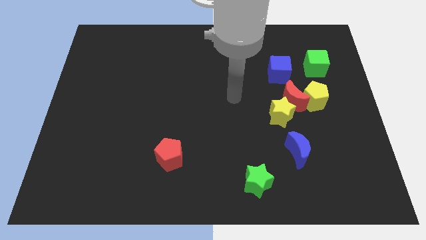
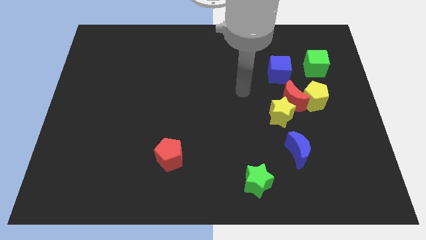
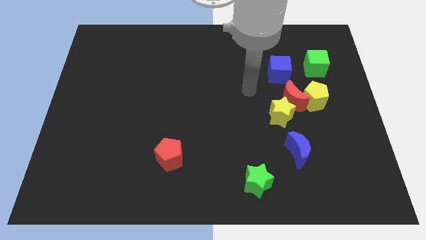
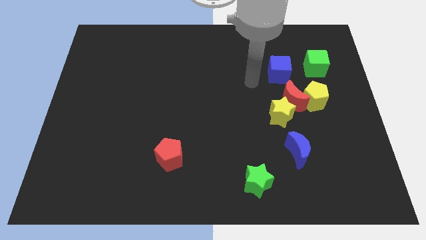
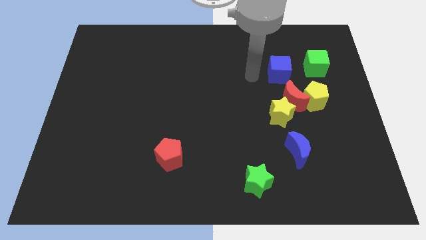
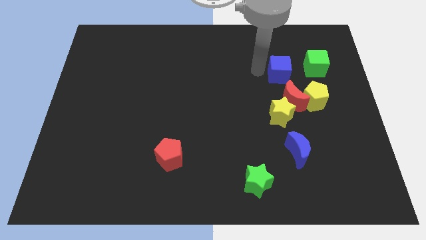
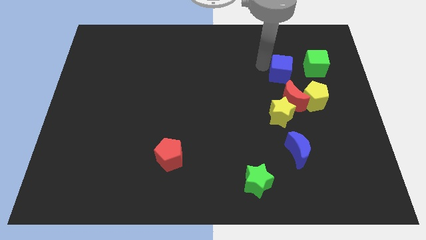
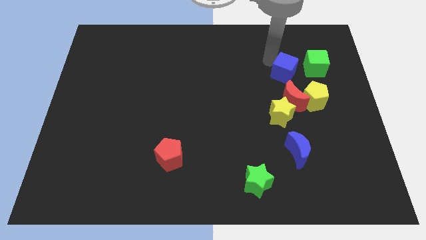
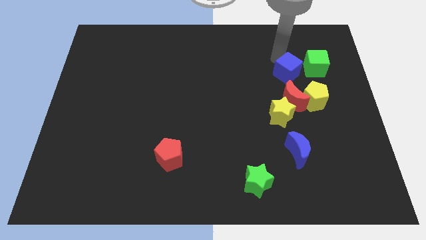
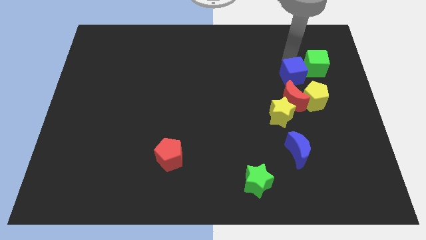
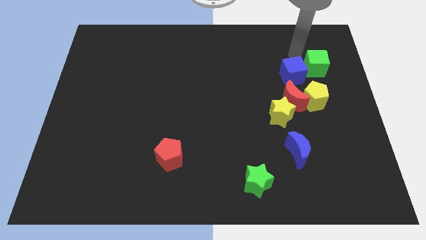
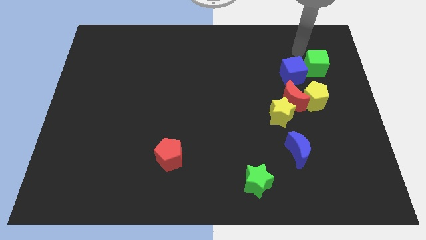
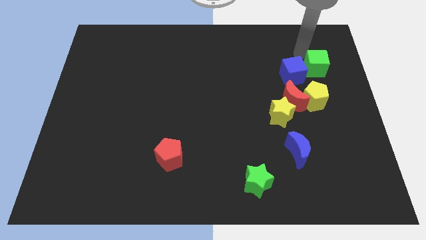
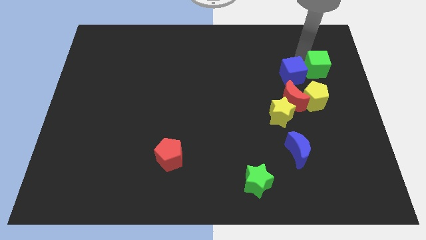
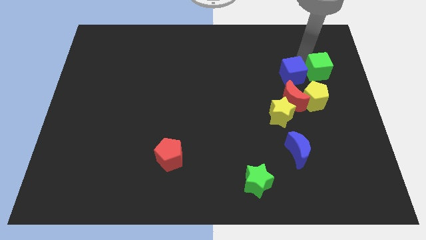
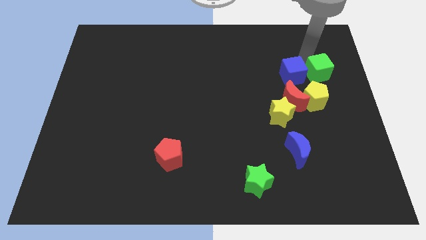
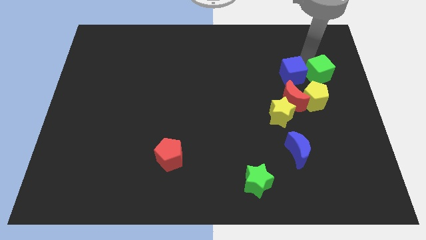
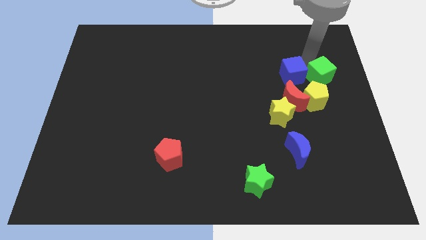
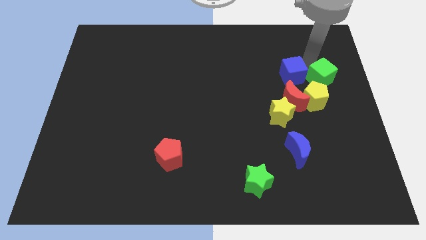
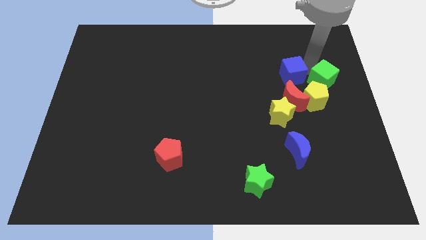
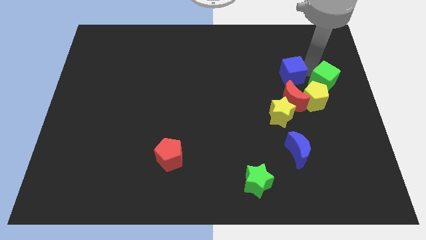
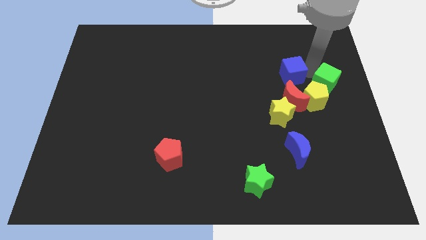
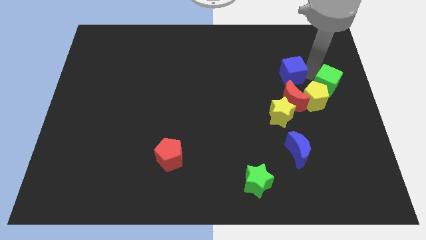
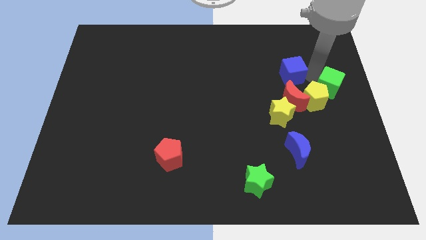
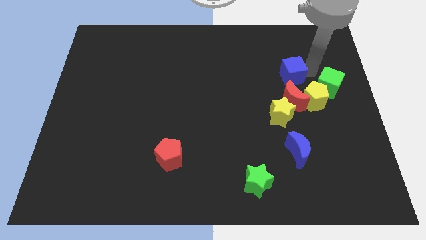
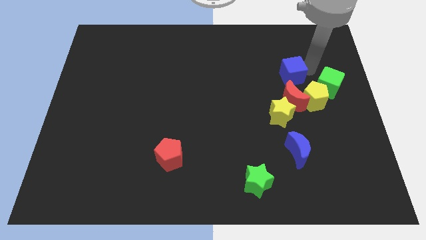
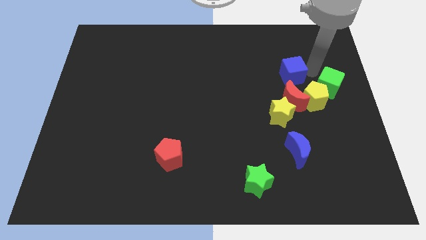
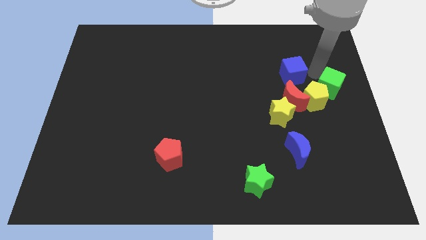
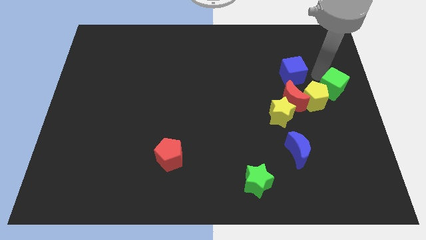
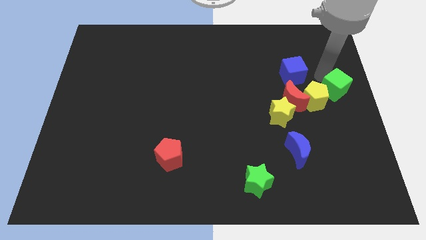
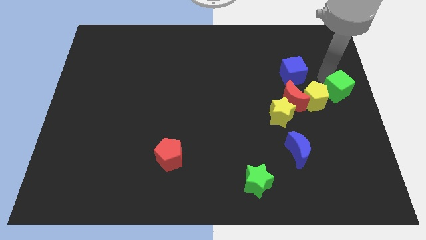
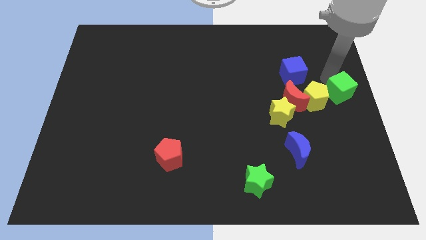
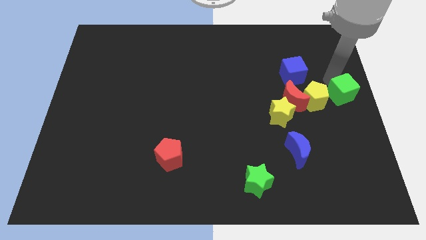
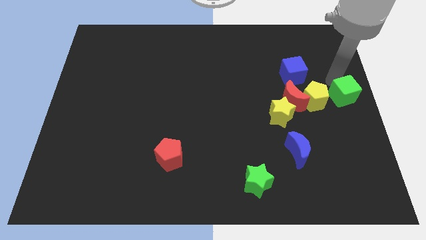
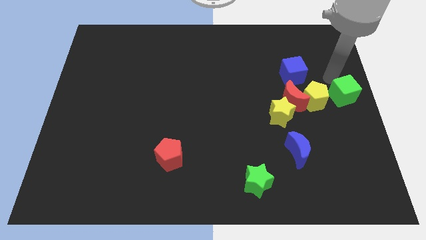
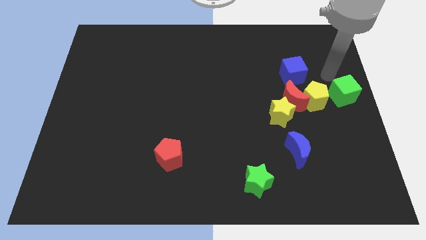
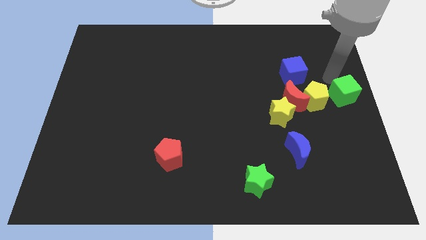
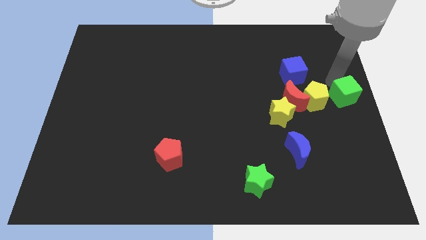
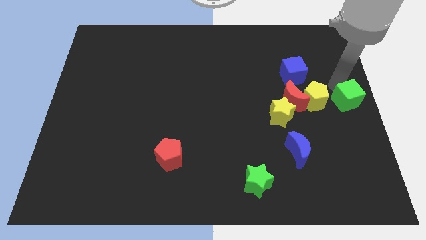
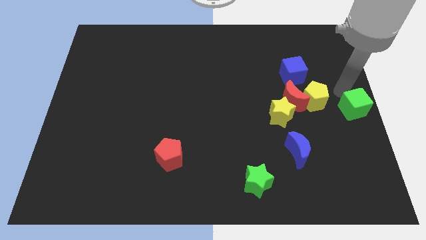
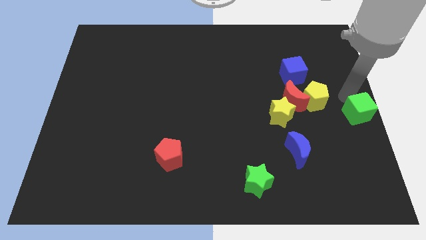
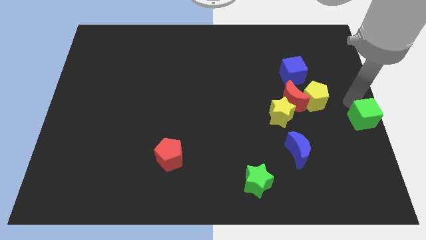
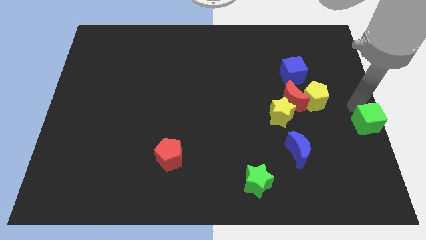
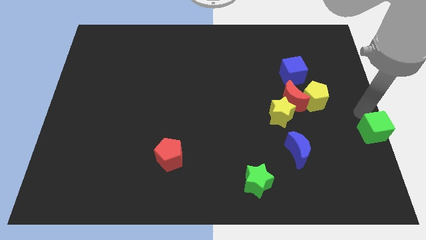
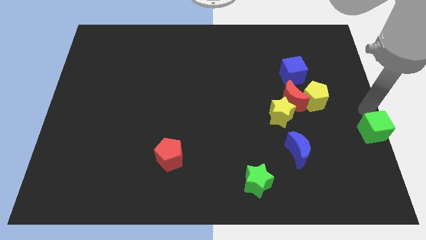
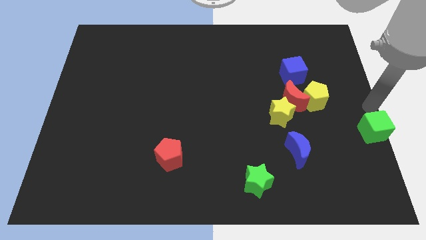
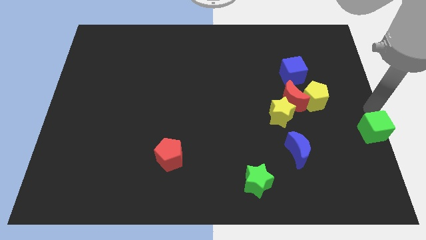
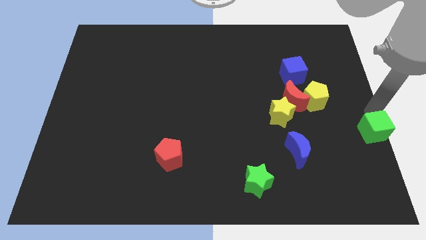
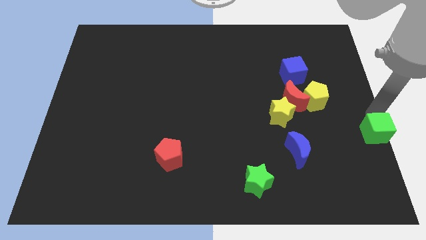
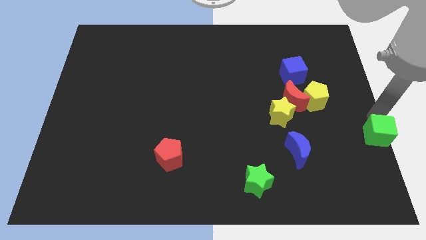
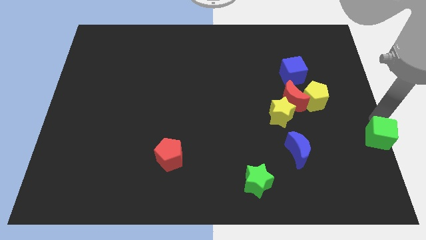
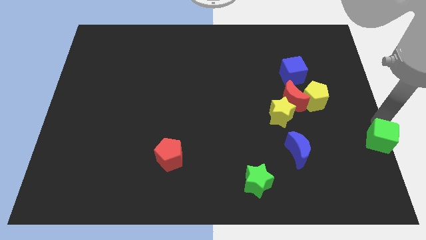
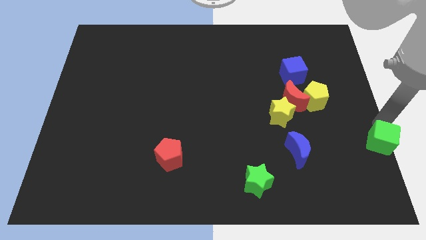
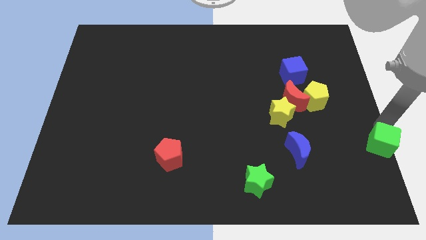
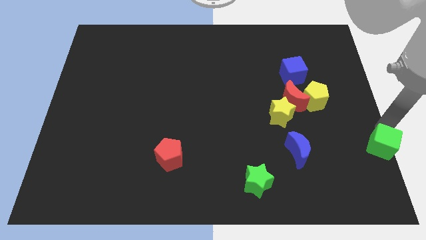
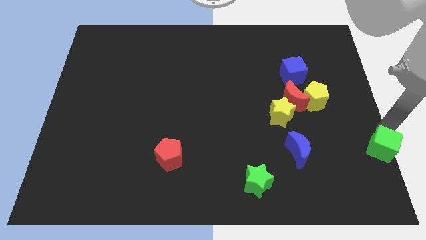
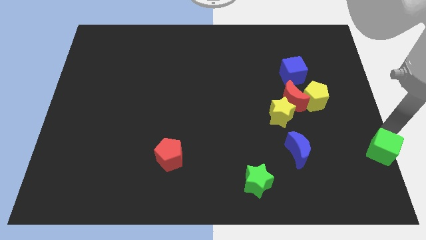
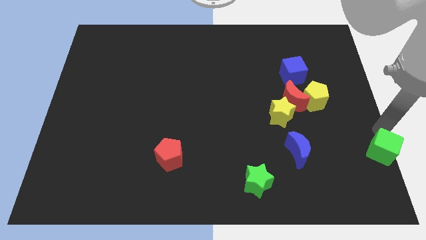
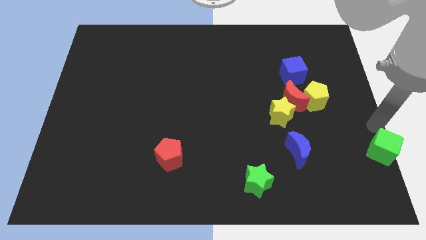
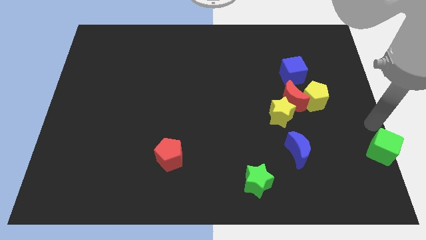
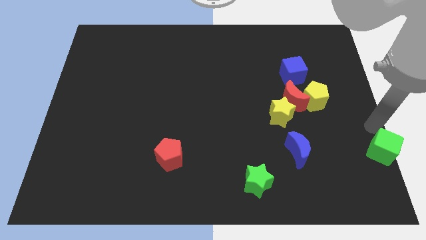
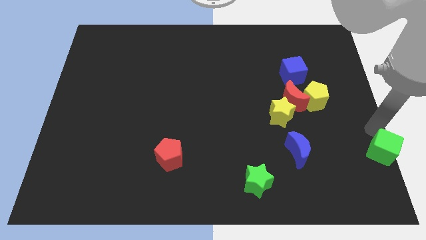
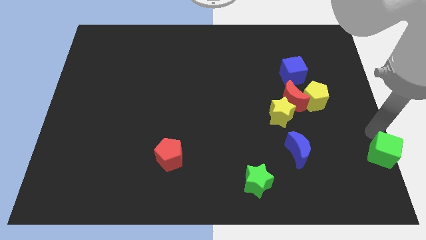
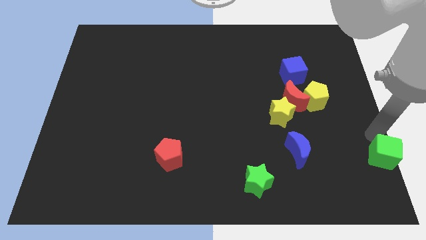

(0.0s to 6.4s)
move the green cube to the bottom right
